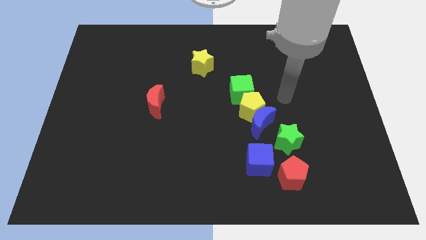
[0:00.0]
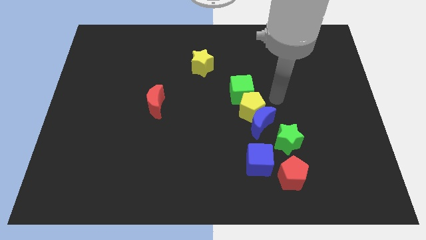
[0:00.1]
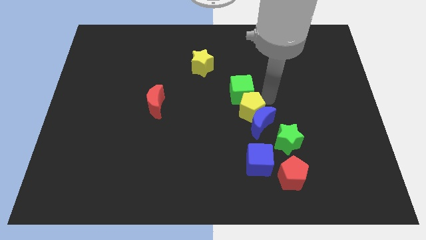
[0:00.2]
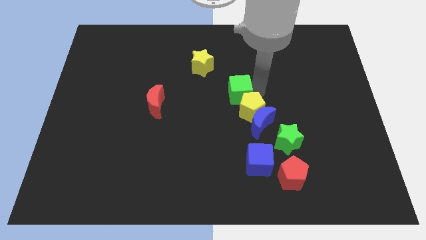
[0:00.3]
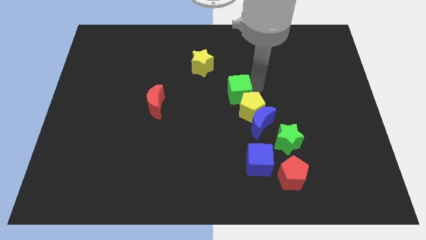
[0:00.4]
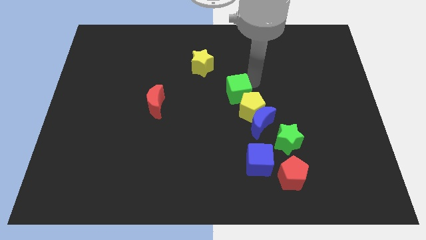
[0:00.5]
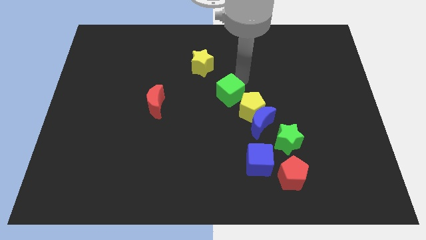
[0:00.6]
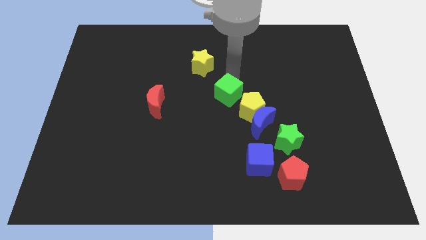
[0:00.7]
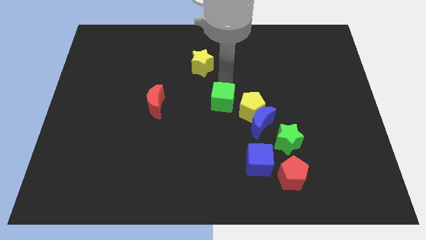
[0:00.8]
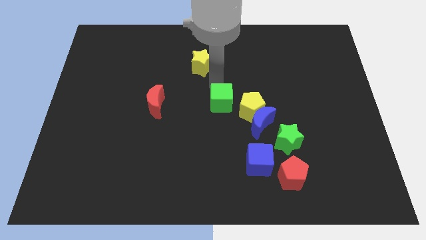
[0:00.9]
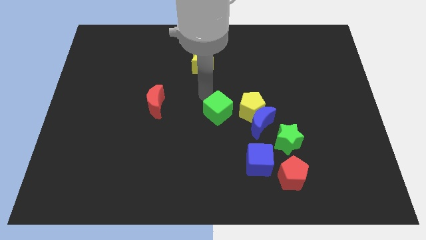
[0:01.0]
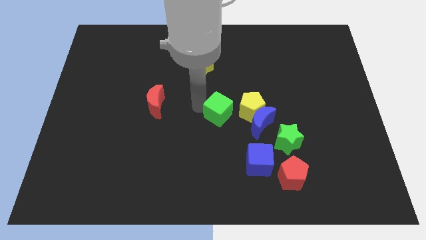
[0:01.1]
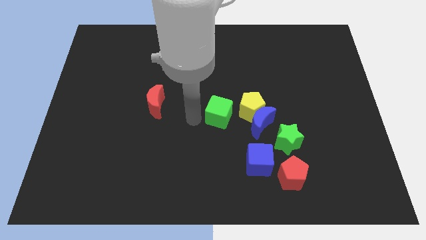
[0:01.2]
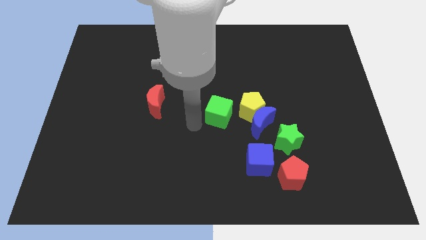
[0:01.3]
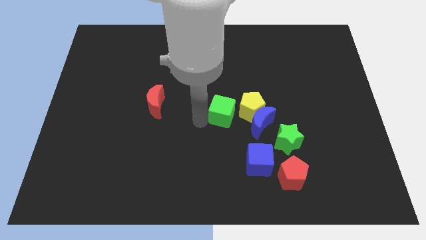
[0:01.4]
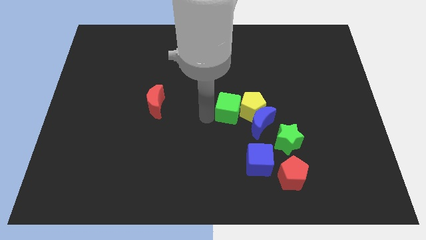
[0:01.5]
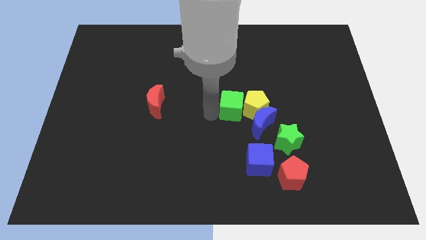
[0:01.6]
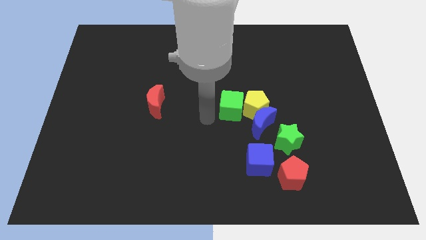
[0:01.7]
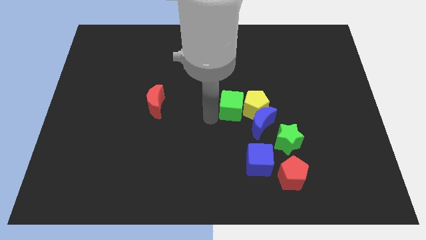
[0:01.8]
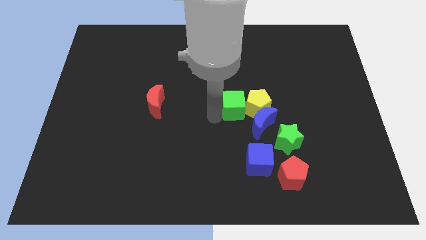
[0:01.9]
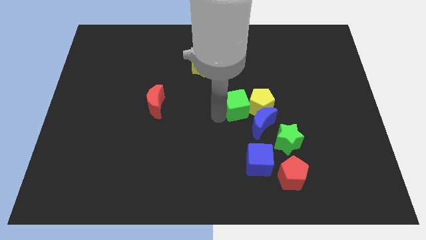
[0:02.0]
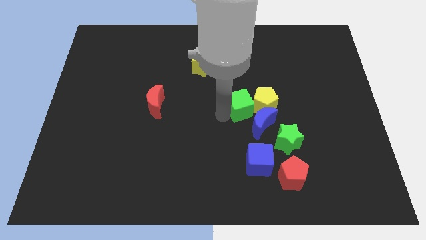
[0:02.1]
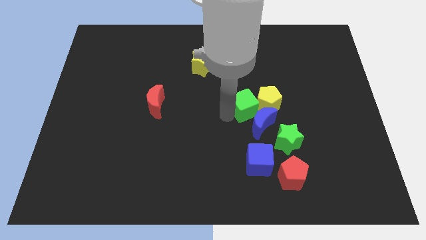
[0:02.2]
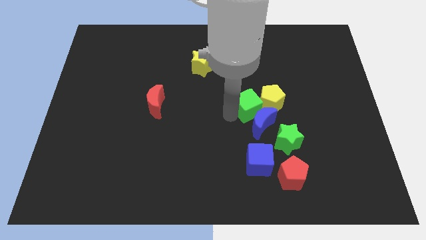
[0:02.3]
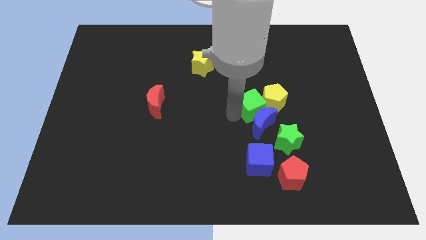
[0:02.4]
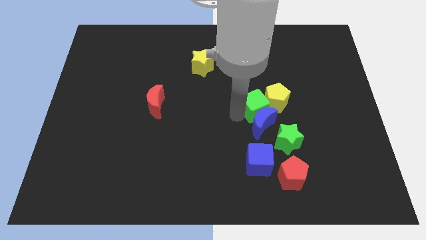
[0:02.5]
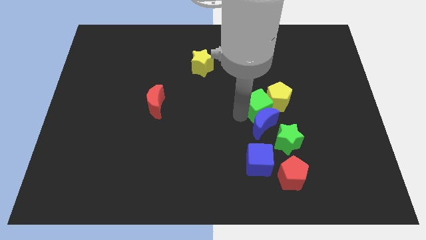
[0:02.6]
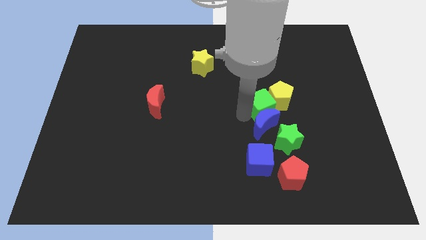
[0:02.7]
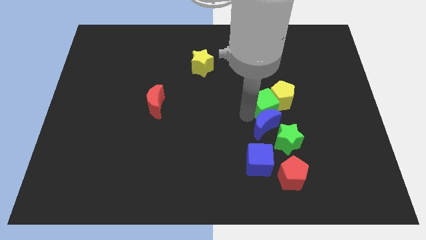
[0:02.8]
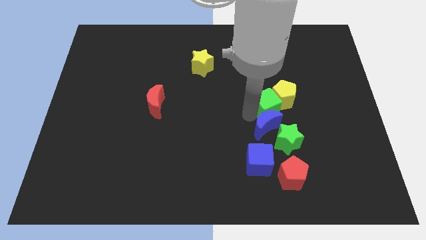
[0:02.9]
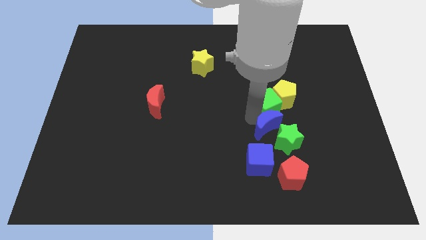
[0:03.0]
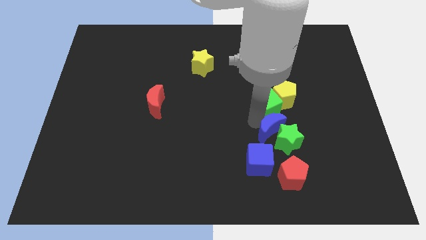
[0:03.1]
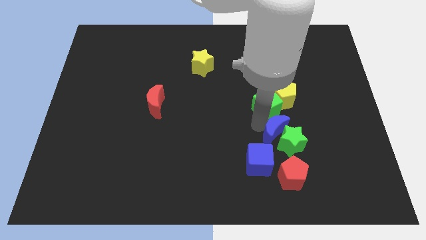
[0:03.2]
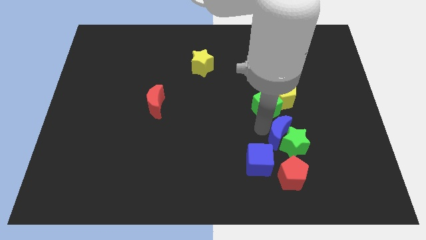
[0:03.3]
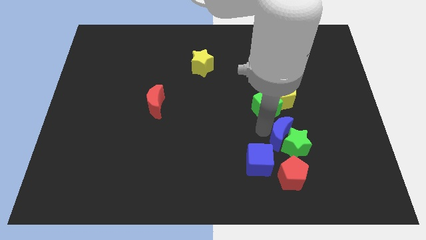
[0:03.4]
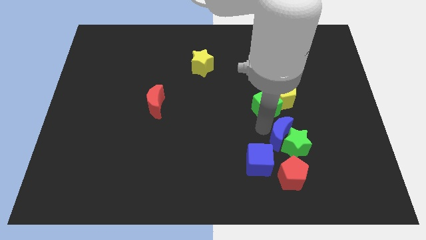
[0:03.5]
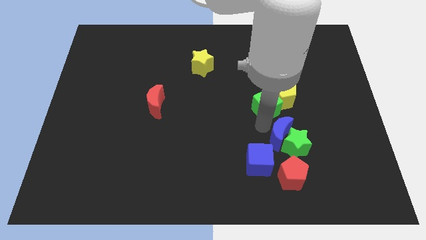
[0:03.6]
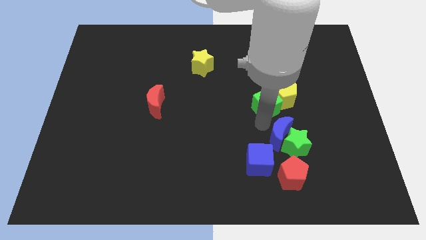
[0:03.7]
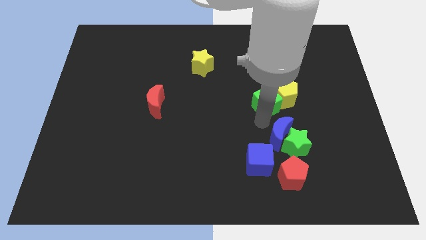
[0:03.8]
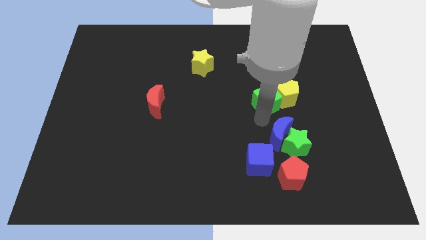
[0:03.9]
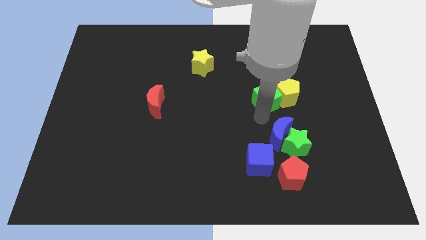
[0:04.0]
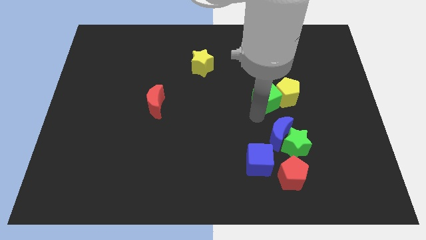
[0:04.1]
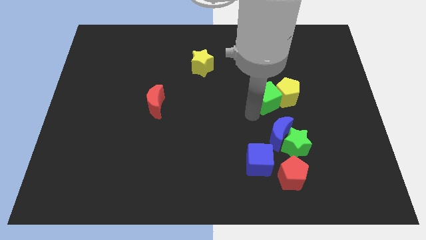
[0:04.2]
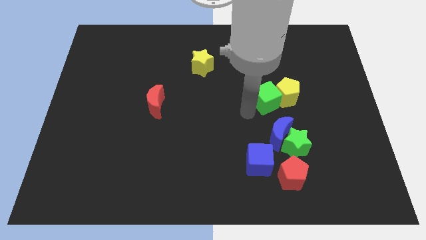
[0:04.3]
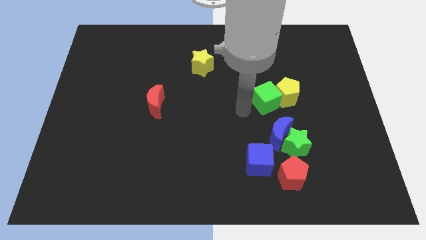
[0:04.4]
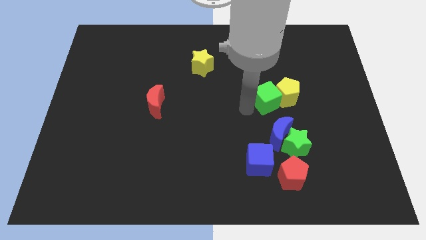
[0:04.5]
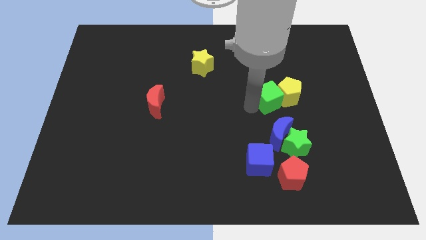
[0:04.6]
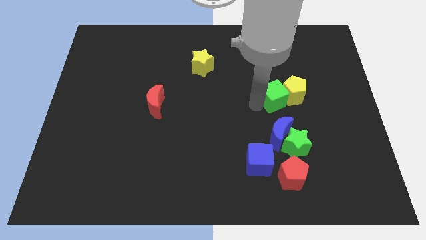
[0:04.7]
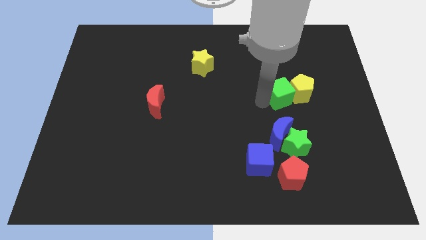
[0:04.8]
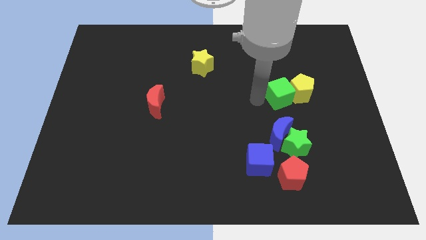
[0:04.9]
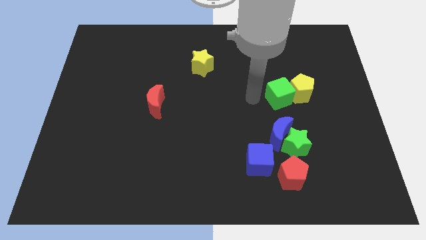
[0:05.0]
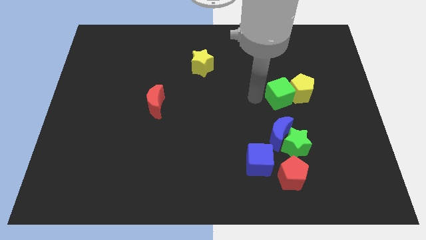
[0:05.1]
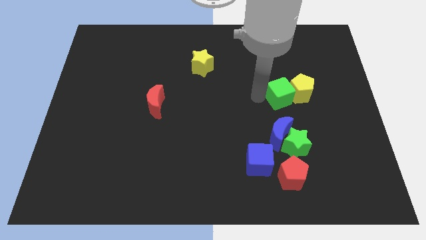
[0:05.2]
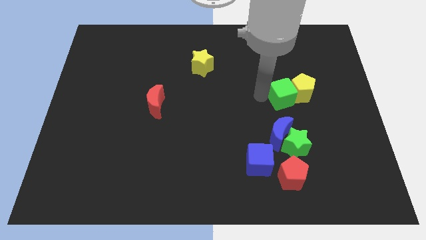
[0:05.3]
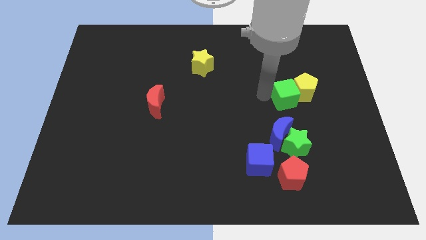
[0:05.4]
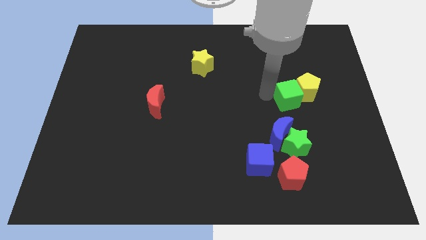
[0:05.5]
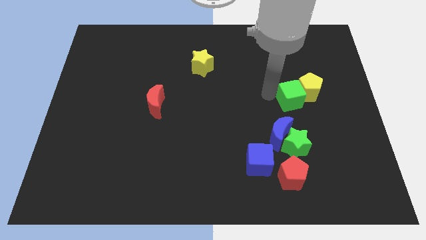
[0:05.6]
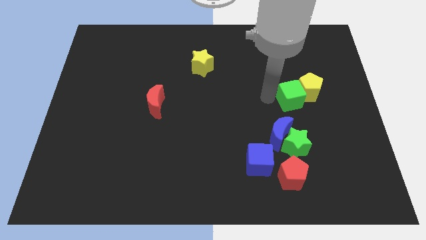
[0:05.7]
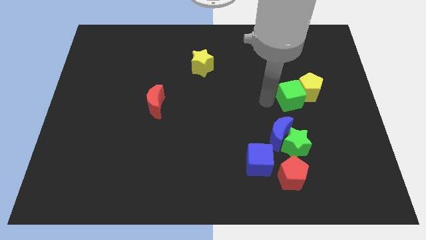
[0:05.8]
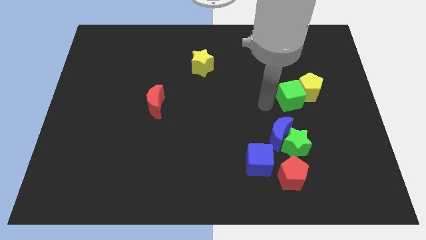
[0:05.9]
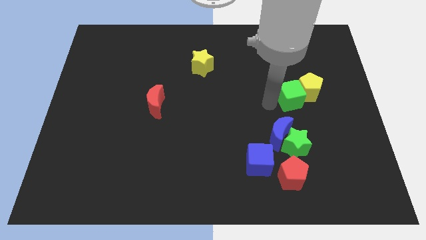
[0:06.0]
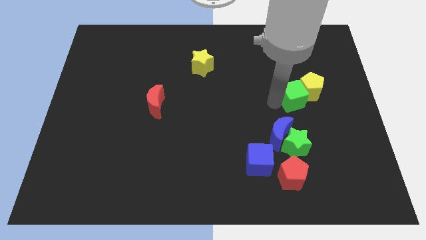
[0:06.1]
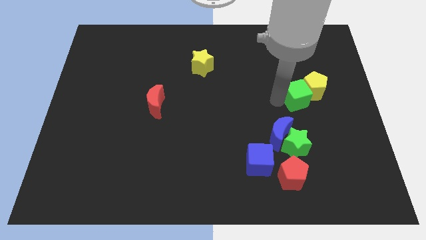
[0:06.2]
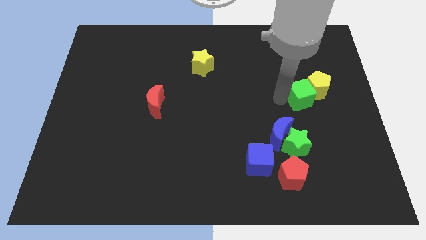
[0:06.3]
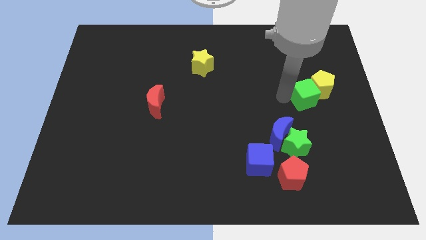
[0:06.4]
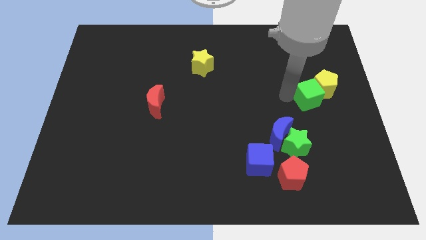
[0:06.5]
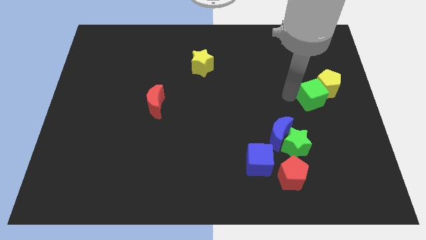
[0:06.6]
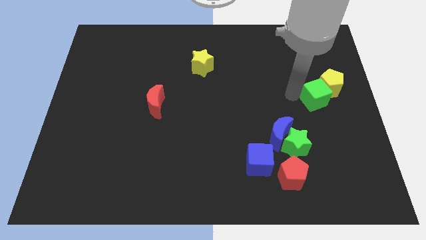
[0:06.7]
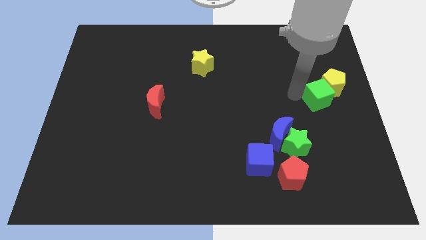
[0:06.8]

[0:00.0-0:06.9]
move the green cube to the right side of the board

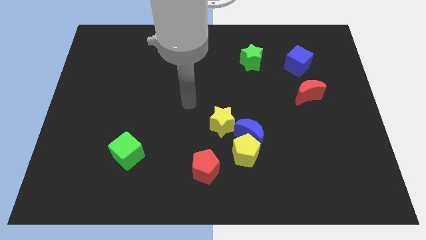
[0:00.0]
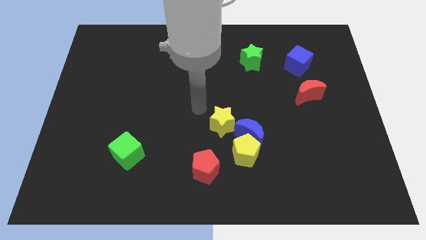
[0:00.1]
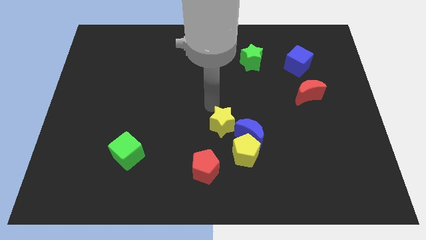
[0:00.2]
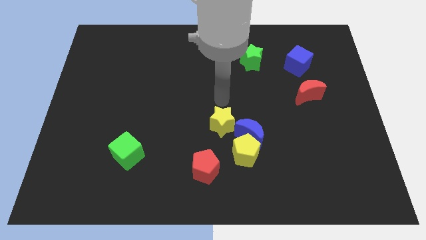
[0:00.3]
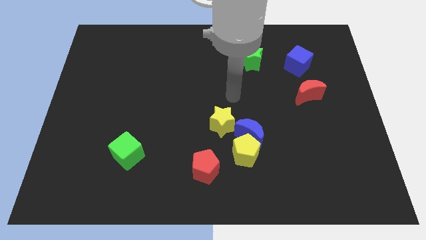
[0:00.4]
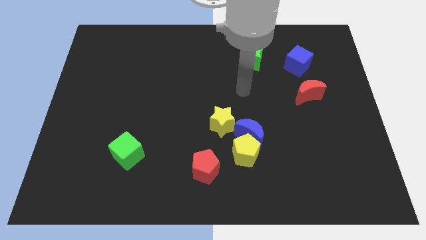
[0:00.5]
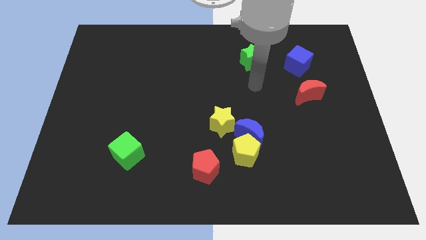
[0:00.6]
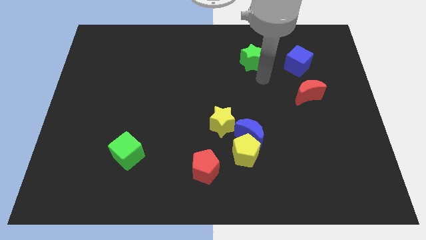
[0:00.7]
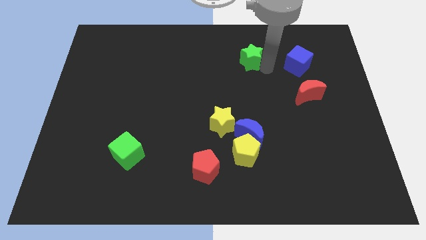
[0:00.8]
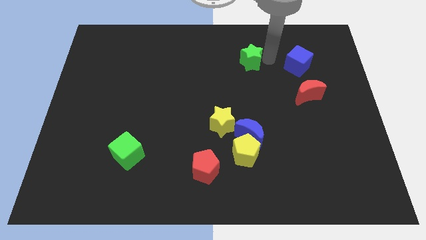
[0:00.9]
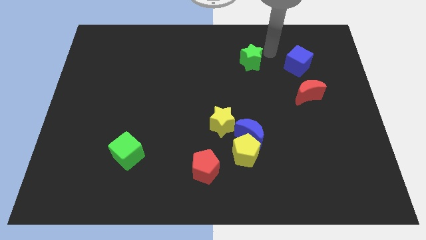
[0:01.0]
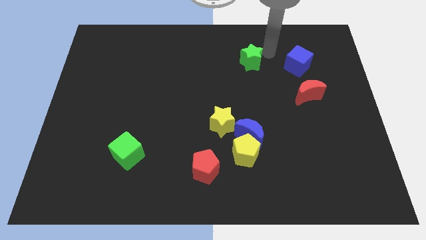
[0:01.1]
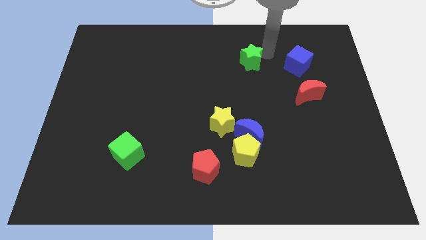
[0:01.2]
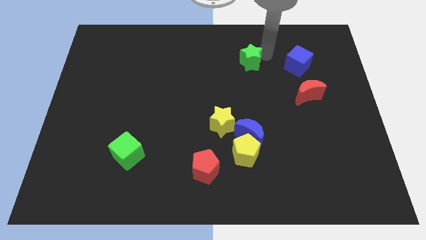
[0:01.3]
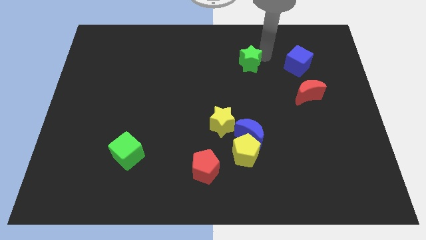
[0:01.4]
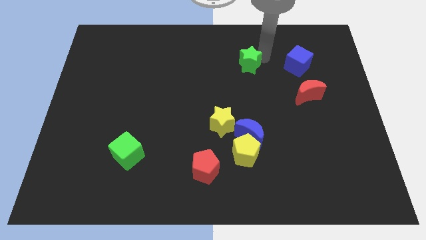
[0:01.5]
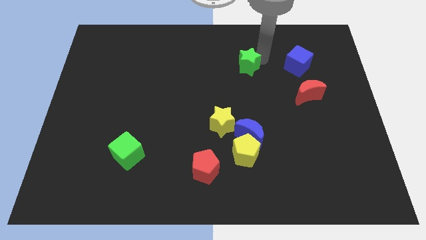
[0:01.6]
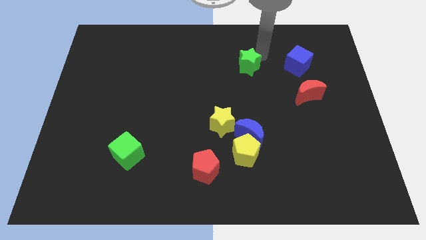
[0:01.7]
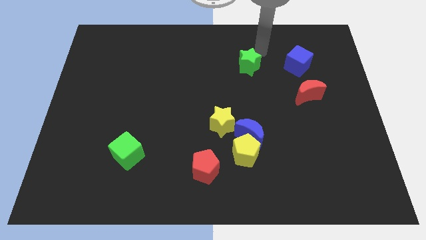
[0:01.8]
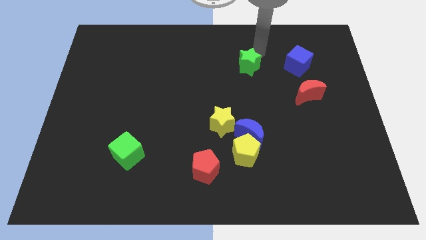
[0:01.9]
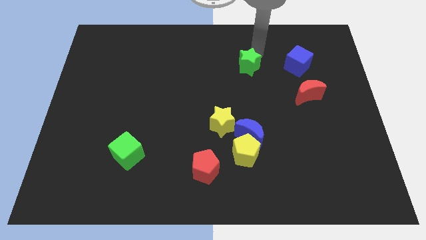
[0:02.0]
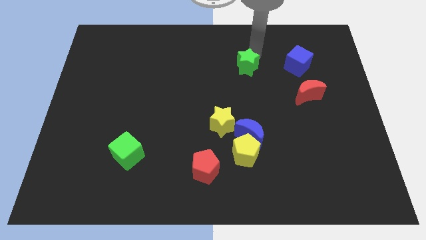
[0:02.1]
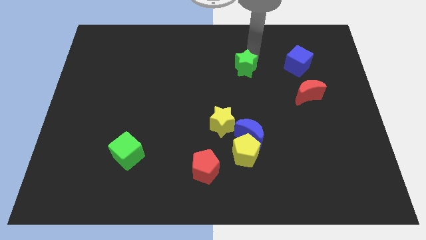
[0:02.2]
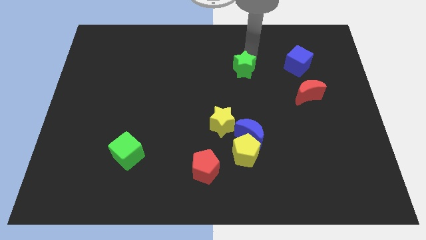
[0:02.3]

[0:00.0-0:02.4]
move the green star to the center
